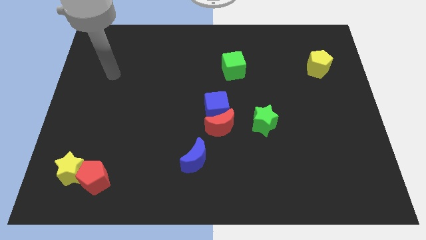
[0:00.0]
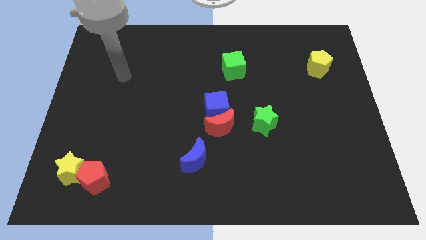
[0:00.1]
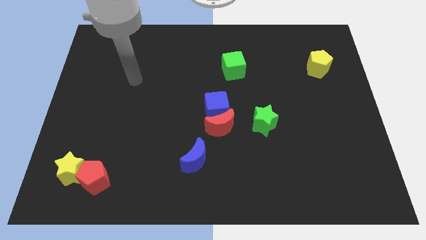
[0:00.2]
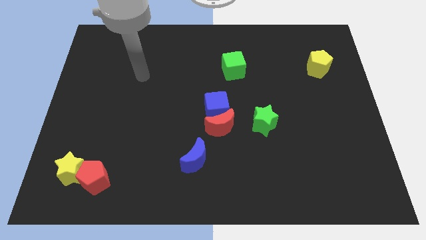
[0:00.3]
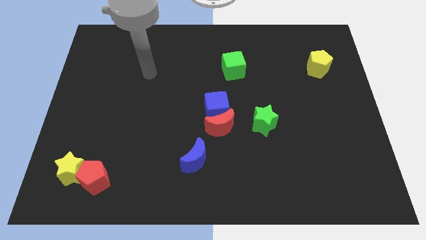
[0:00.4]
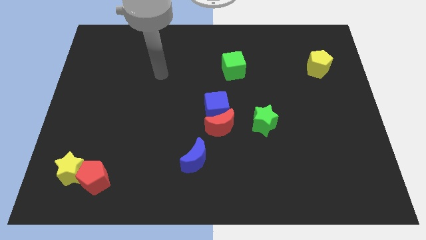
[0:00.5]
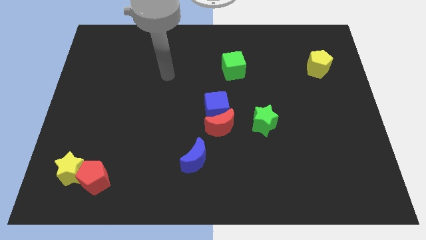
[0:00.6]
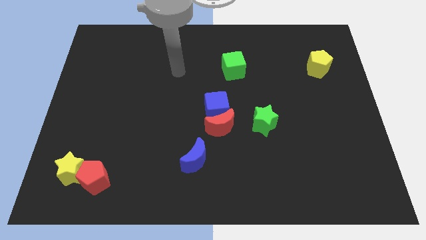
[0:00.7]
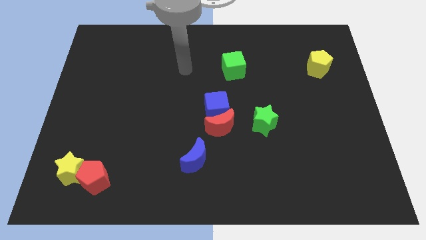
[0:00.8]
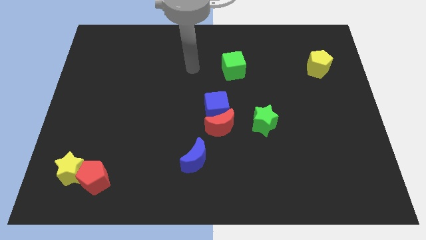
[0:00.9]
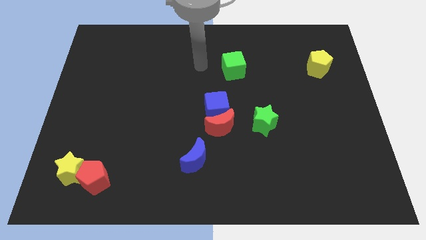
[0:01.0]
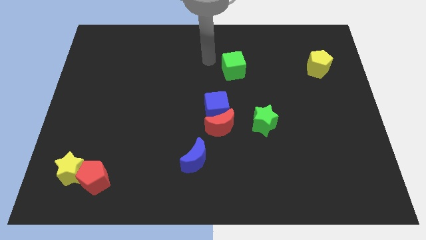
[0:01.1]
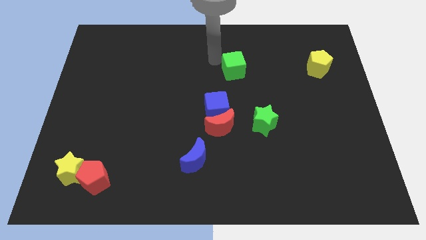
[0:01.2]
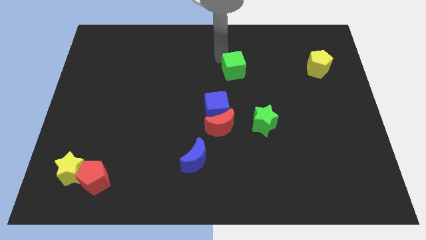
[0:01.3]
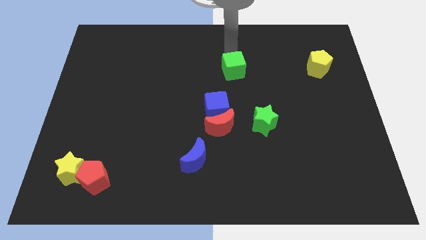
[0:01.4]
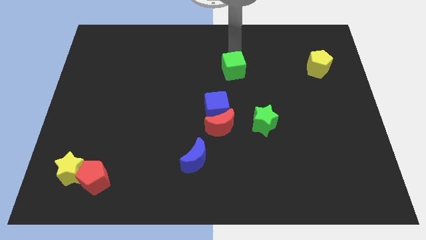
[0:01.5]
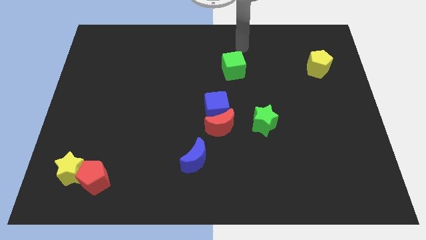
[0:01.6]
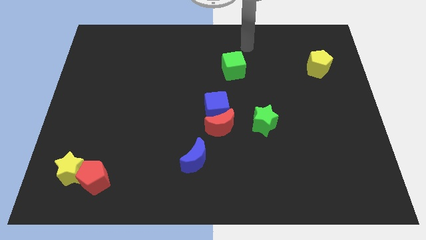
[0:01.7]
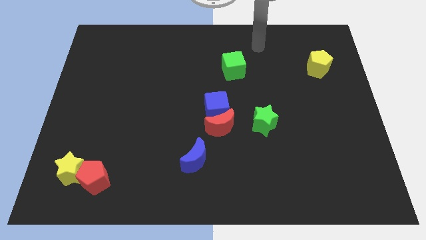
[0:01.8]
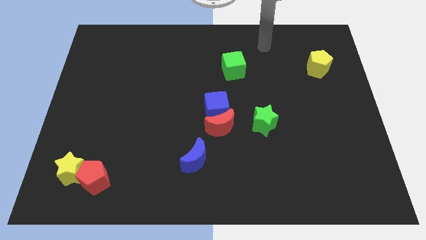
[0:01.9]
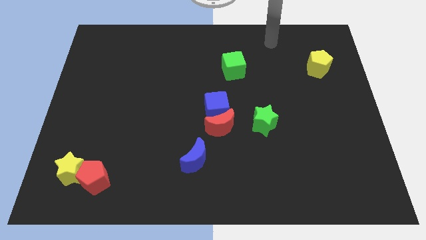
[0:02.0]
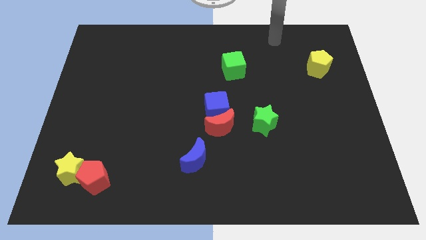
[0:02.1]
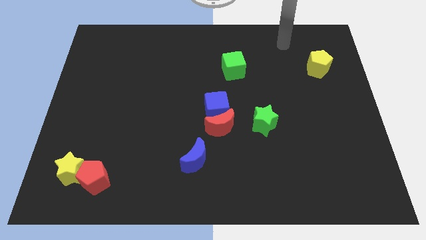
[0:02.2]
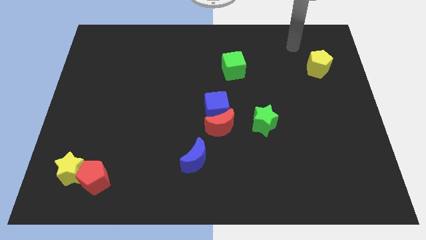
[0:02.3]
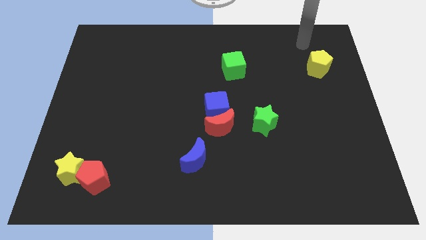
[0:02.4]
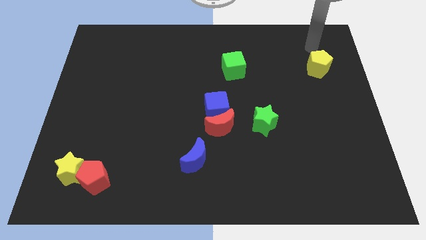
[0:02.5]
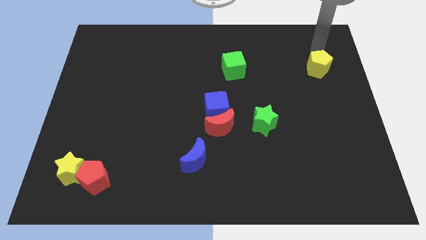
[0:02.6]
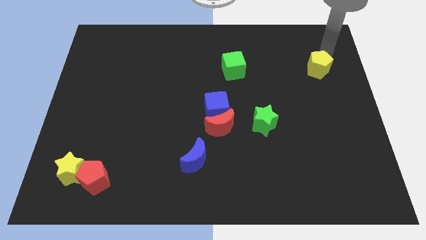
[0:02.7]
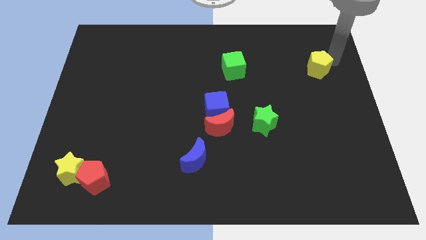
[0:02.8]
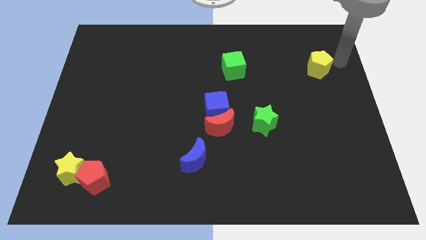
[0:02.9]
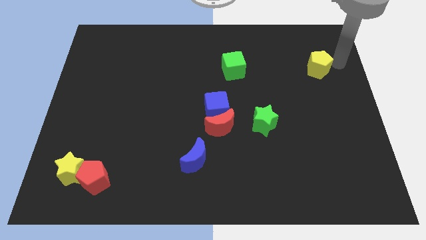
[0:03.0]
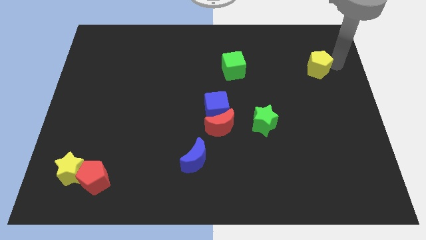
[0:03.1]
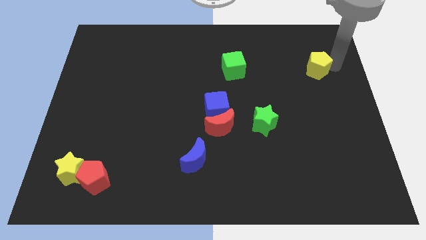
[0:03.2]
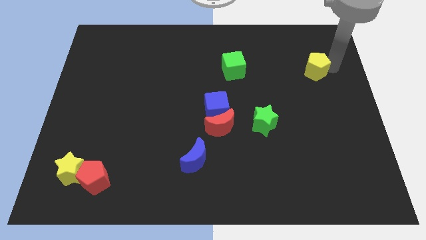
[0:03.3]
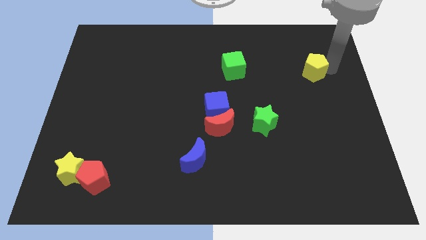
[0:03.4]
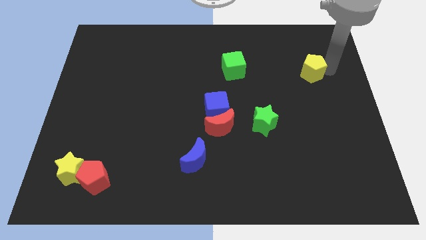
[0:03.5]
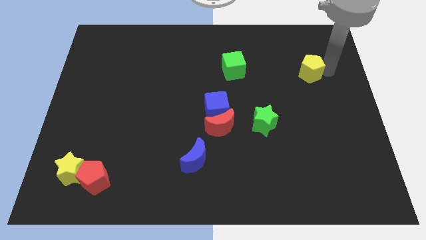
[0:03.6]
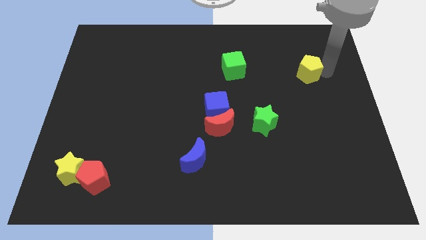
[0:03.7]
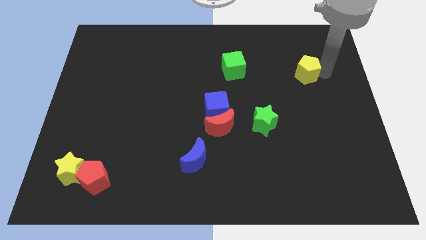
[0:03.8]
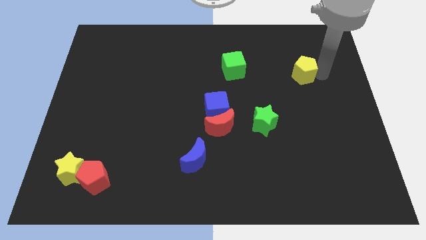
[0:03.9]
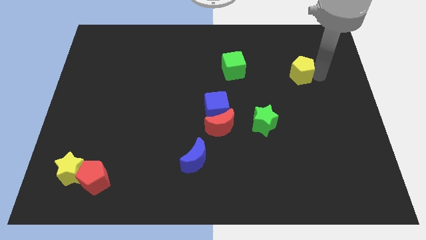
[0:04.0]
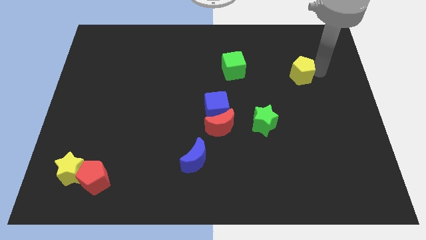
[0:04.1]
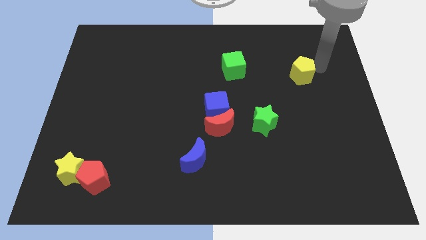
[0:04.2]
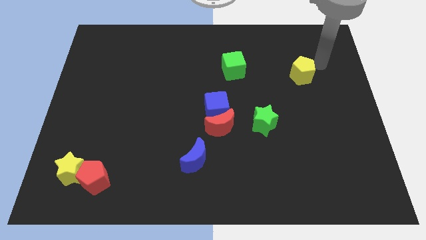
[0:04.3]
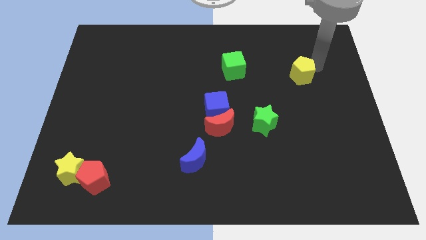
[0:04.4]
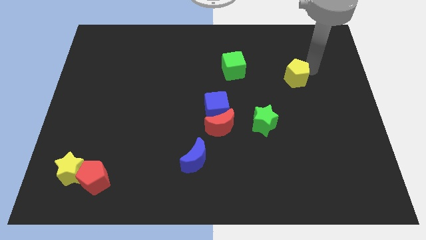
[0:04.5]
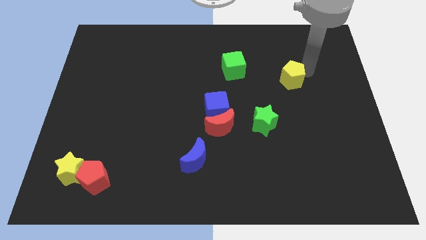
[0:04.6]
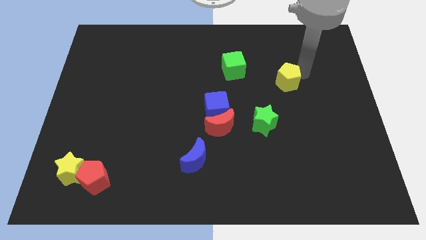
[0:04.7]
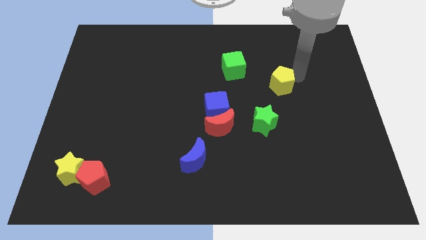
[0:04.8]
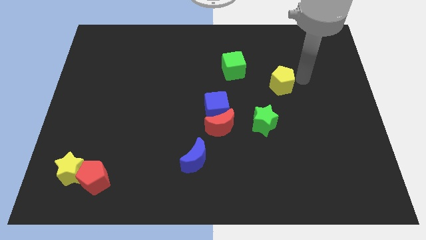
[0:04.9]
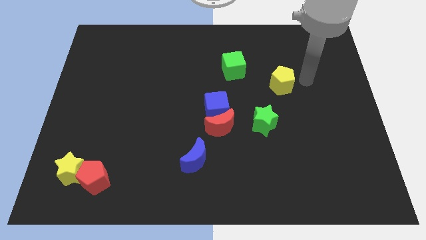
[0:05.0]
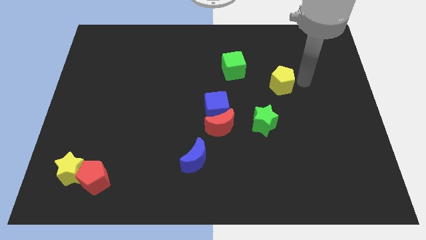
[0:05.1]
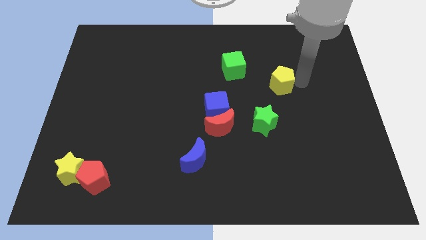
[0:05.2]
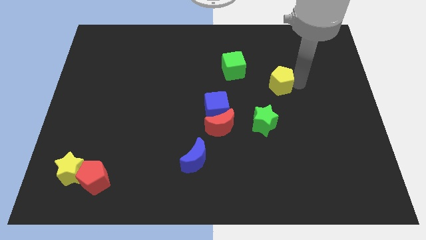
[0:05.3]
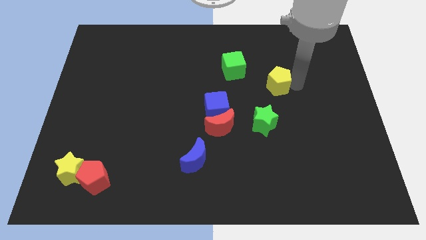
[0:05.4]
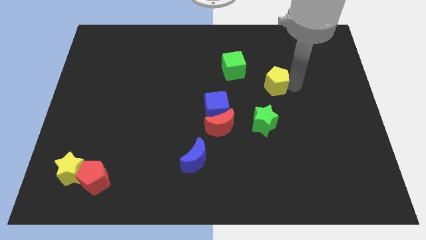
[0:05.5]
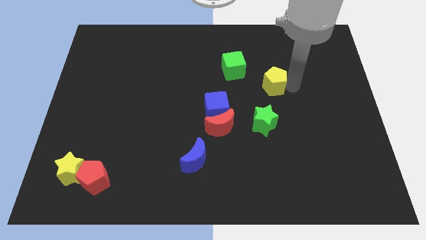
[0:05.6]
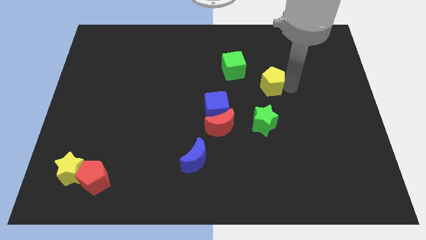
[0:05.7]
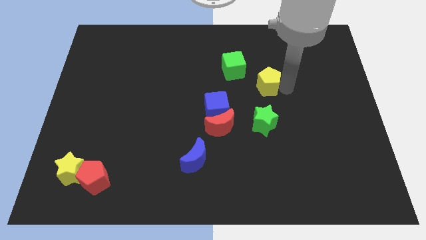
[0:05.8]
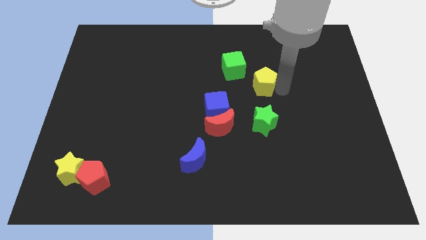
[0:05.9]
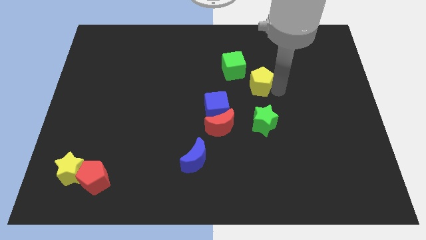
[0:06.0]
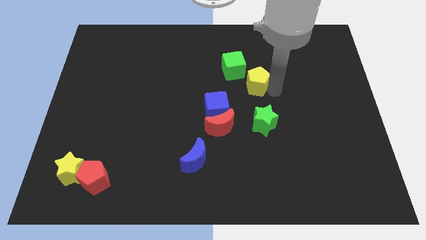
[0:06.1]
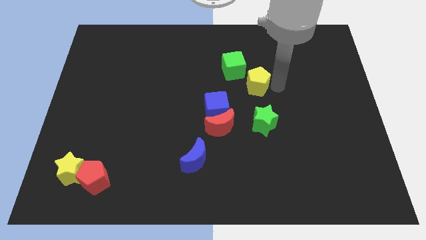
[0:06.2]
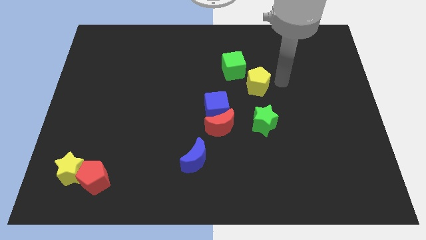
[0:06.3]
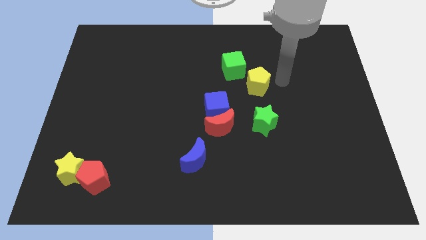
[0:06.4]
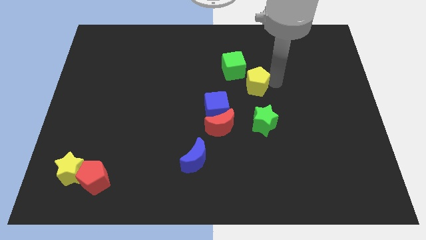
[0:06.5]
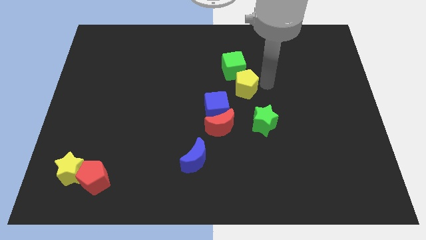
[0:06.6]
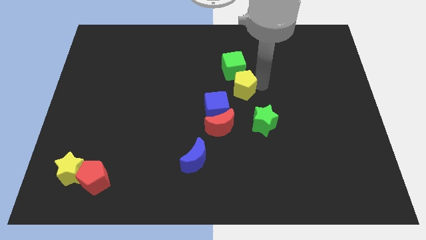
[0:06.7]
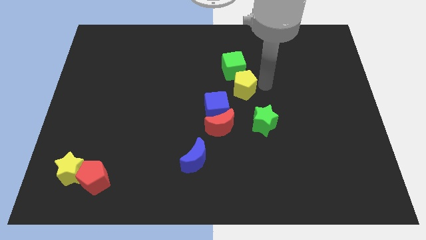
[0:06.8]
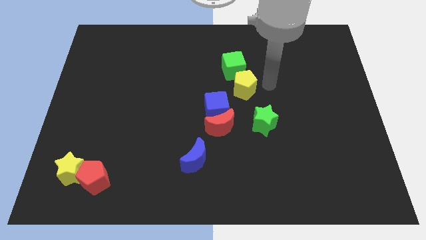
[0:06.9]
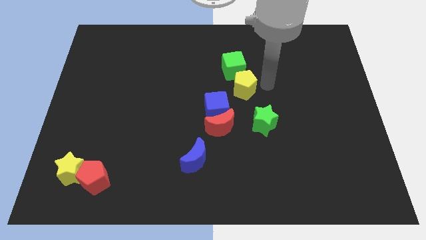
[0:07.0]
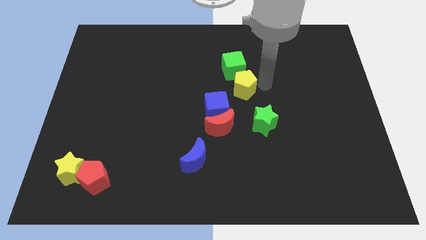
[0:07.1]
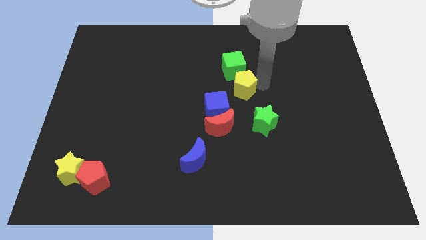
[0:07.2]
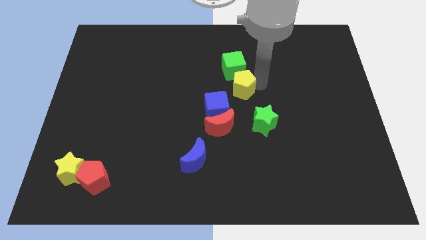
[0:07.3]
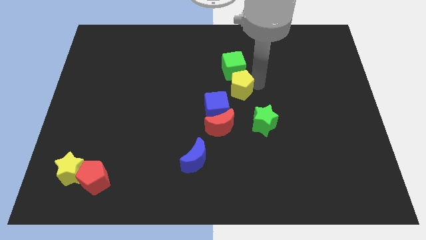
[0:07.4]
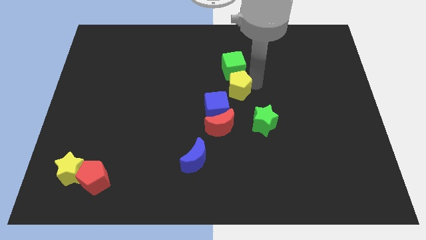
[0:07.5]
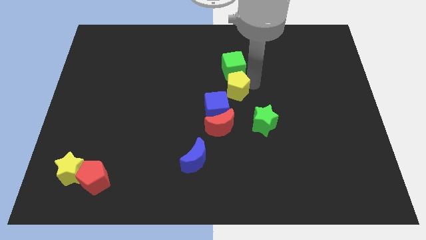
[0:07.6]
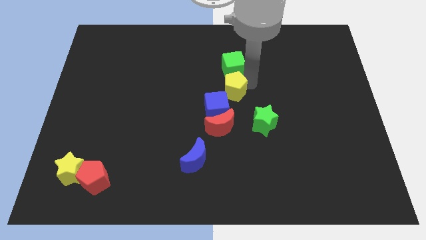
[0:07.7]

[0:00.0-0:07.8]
move the yellow pentagon to the bottom left side of the green cube
